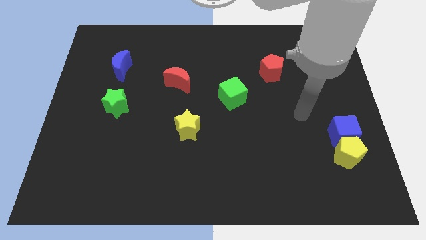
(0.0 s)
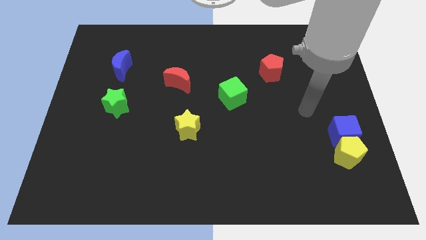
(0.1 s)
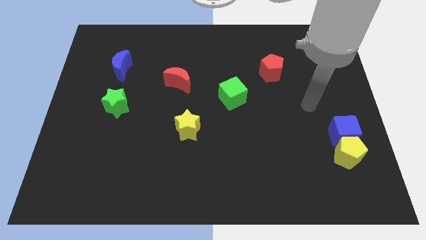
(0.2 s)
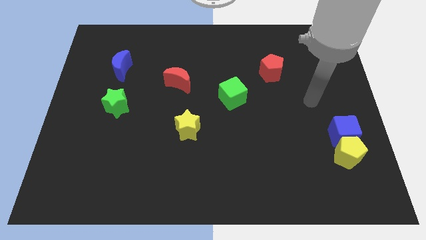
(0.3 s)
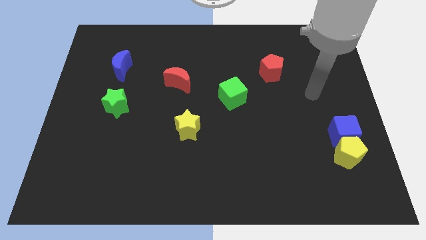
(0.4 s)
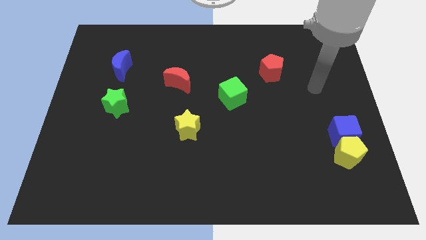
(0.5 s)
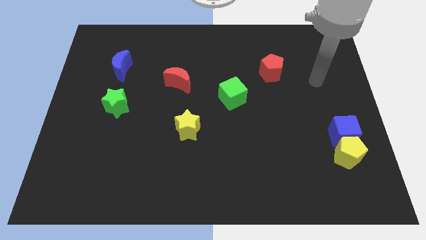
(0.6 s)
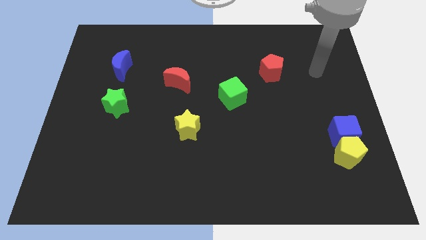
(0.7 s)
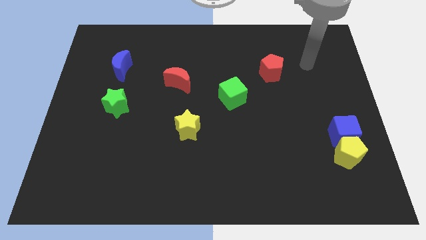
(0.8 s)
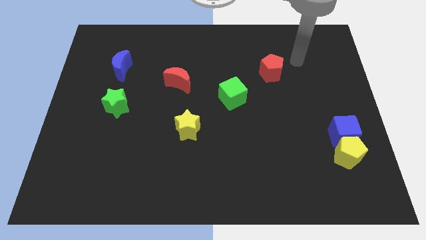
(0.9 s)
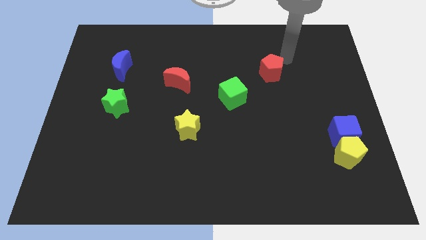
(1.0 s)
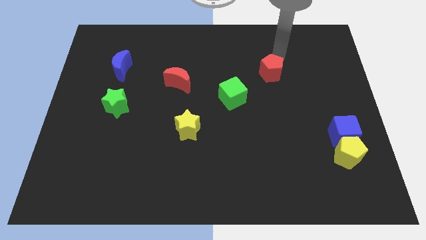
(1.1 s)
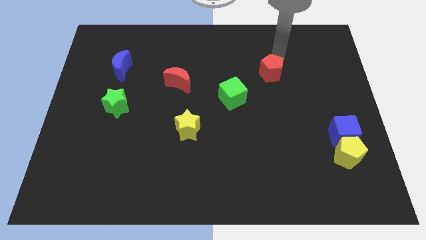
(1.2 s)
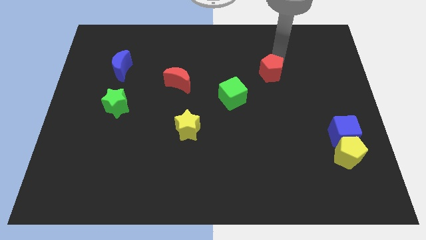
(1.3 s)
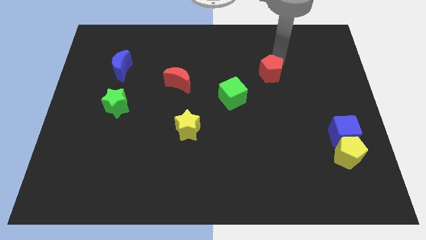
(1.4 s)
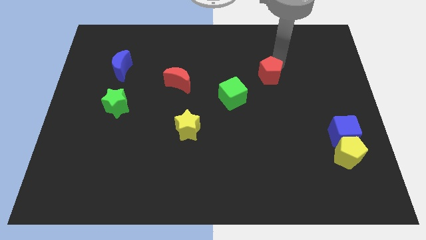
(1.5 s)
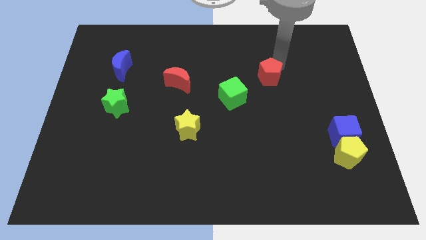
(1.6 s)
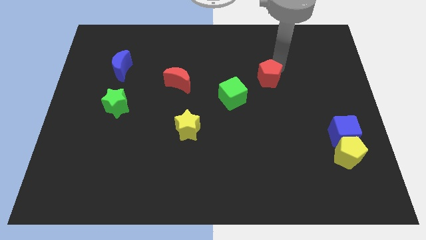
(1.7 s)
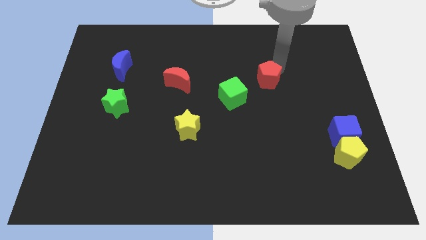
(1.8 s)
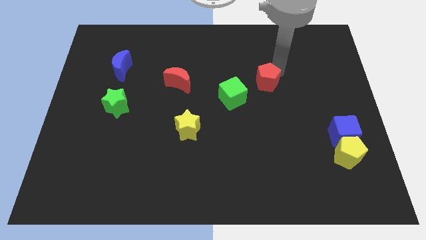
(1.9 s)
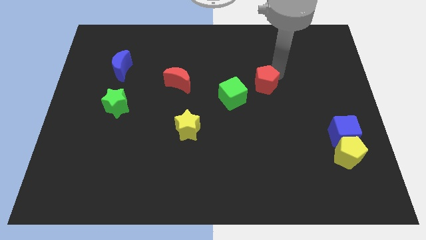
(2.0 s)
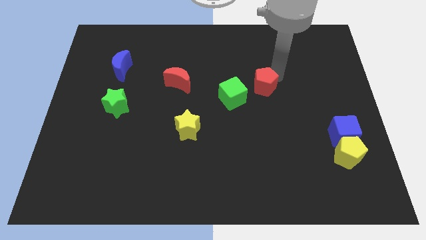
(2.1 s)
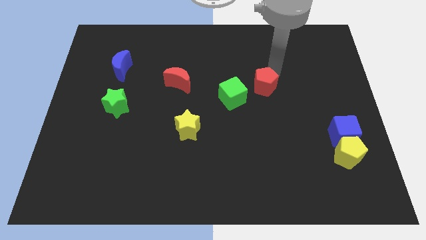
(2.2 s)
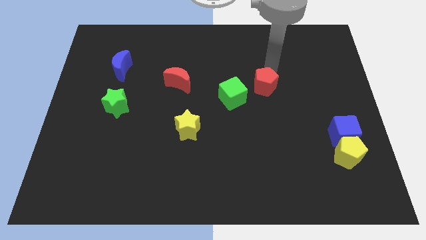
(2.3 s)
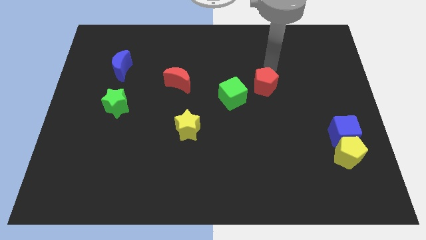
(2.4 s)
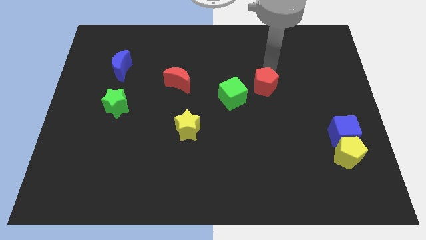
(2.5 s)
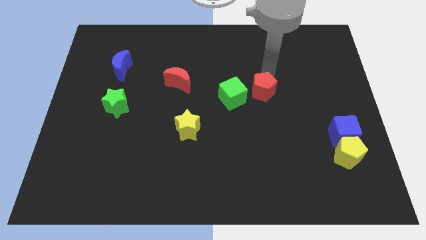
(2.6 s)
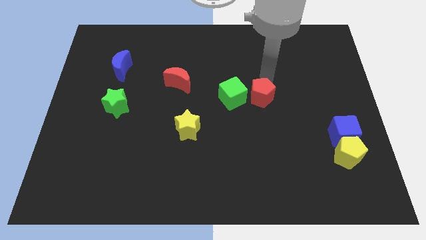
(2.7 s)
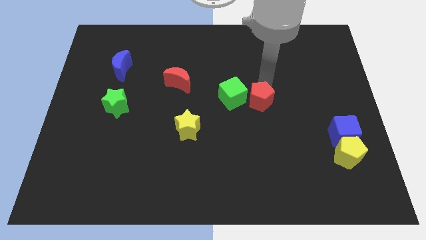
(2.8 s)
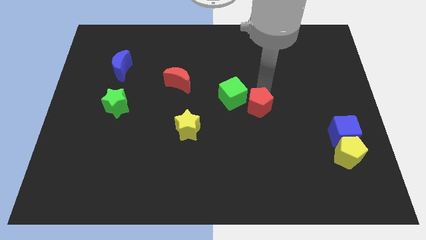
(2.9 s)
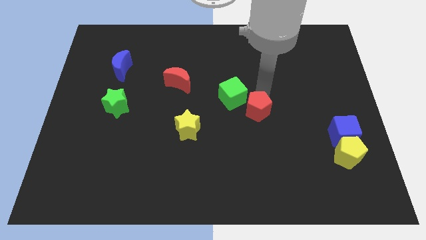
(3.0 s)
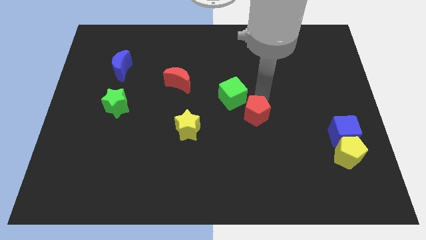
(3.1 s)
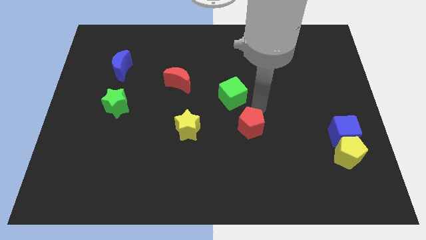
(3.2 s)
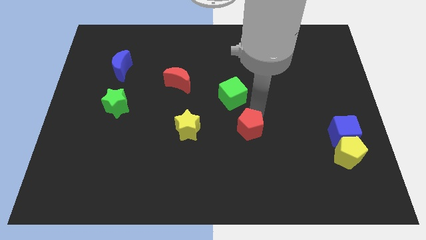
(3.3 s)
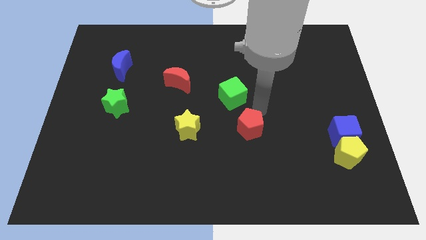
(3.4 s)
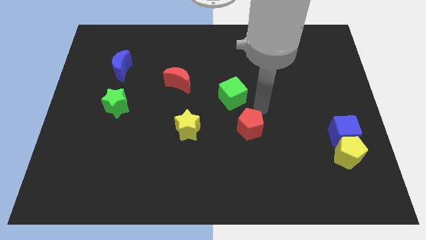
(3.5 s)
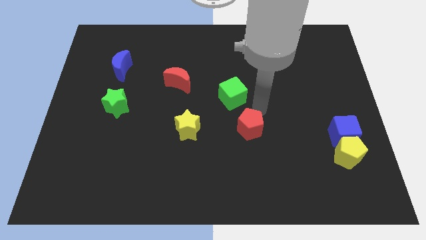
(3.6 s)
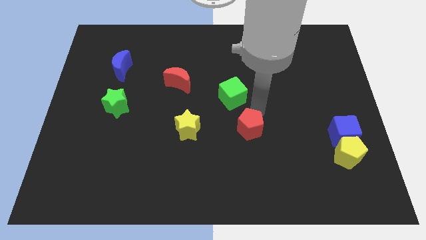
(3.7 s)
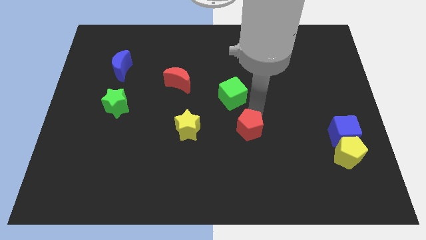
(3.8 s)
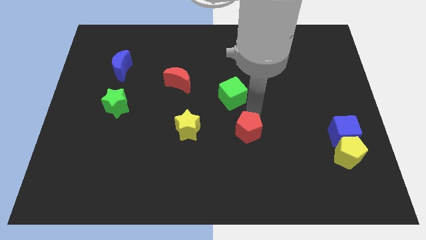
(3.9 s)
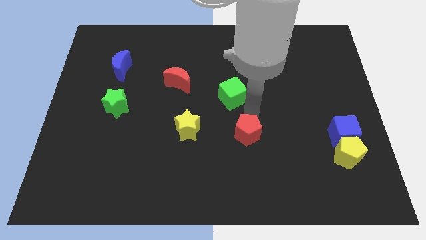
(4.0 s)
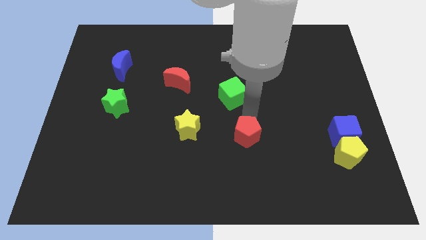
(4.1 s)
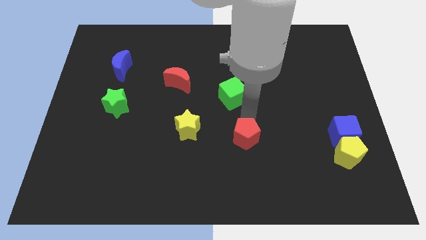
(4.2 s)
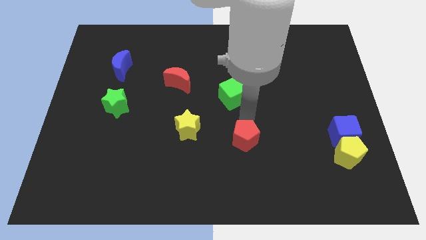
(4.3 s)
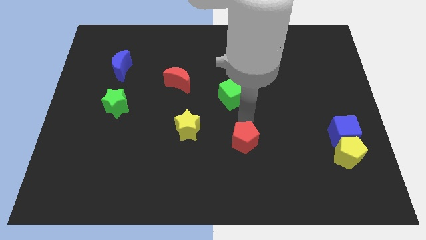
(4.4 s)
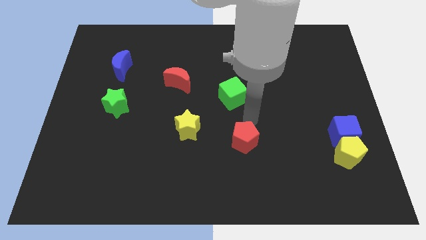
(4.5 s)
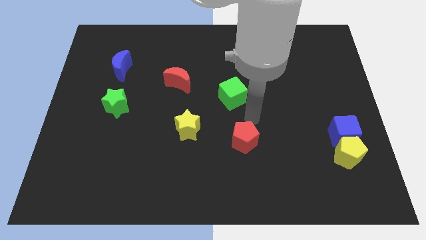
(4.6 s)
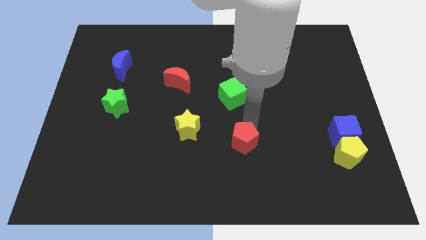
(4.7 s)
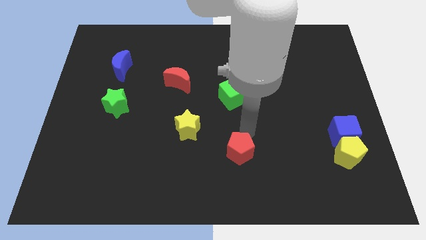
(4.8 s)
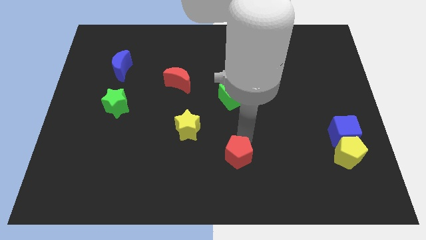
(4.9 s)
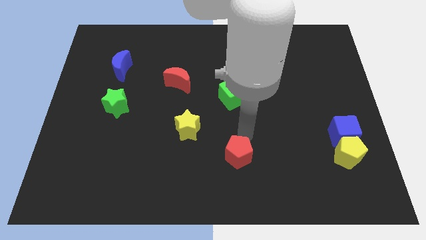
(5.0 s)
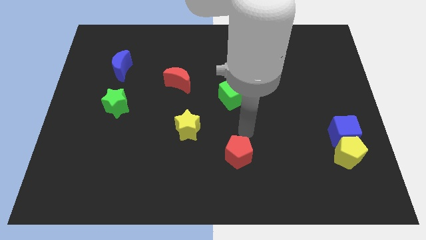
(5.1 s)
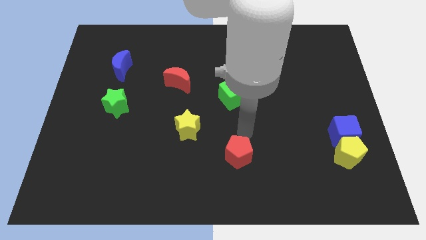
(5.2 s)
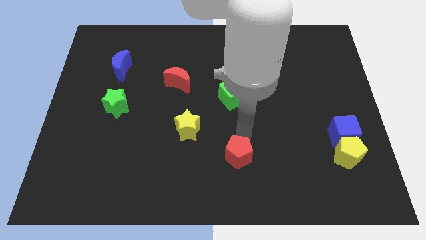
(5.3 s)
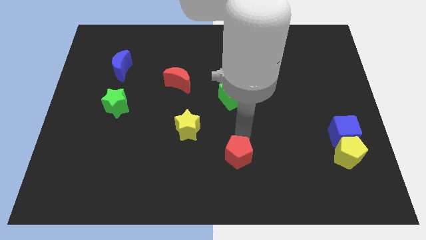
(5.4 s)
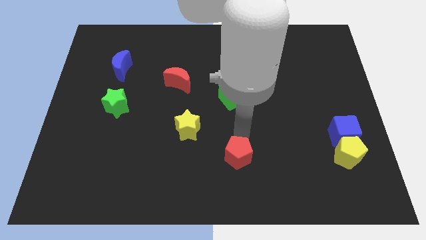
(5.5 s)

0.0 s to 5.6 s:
put the red pentagon to the bottom side
